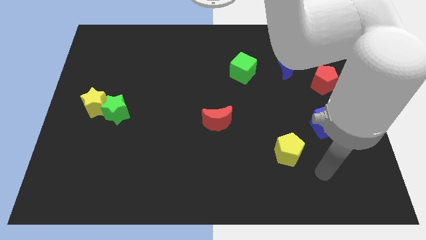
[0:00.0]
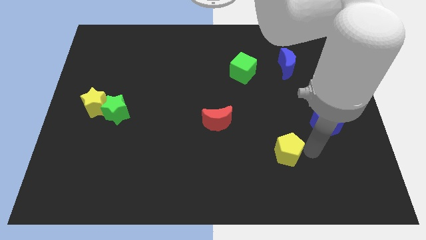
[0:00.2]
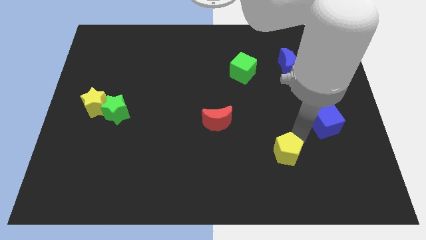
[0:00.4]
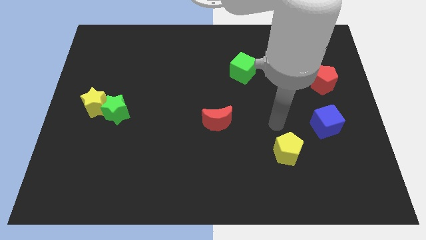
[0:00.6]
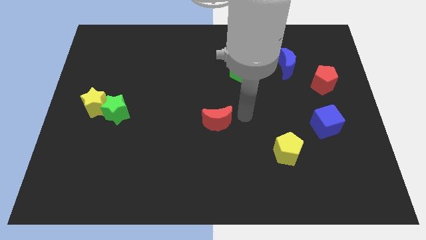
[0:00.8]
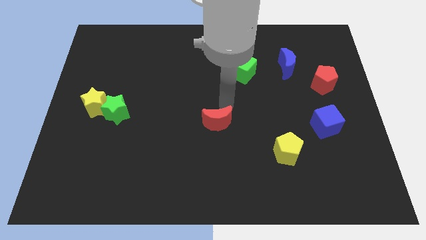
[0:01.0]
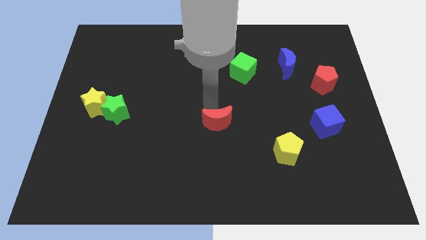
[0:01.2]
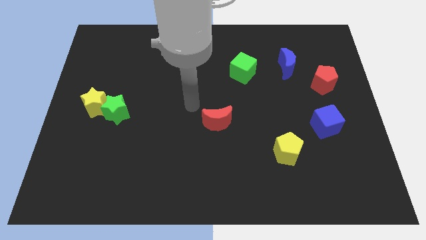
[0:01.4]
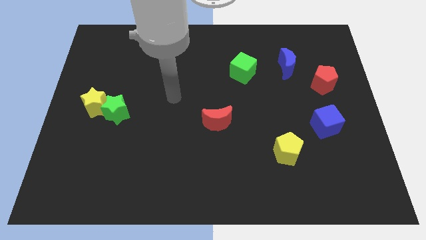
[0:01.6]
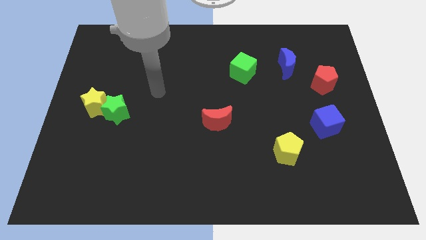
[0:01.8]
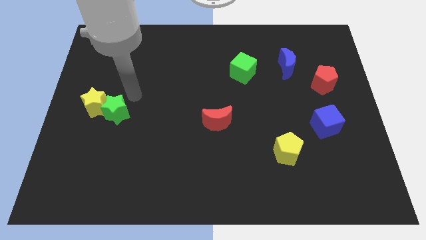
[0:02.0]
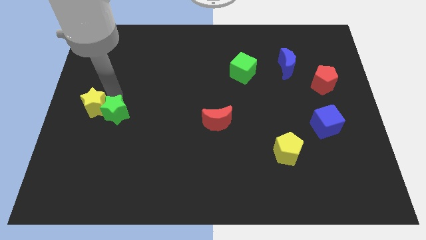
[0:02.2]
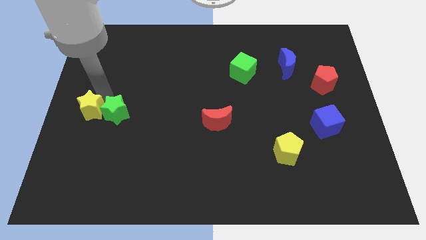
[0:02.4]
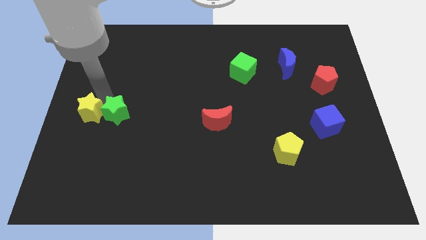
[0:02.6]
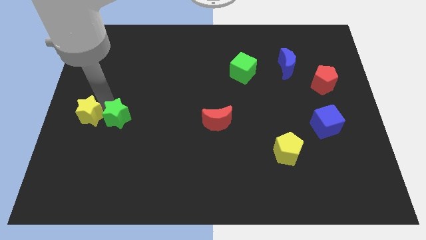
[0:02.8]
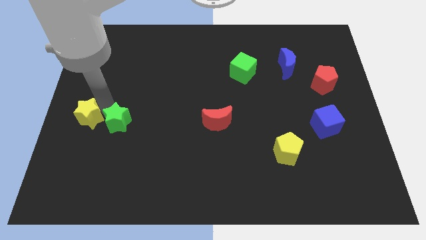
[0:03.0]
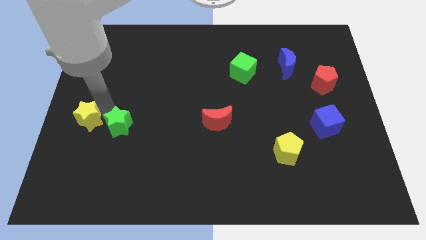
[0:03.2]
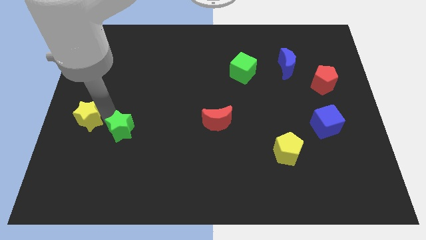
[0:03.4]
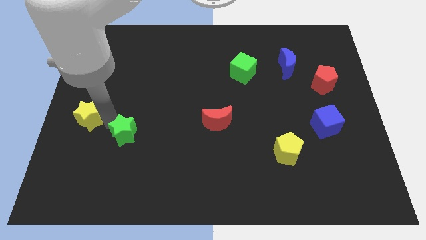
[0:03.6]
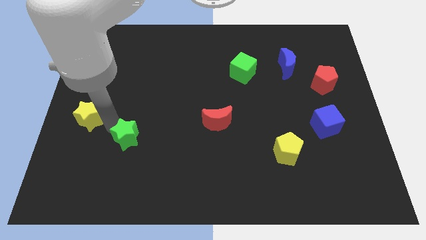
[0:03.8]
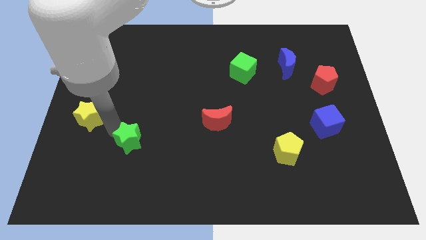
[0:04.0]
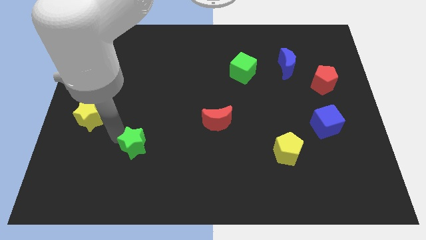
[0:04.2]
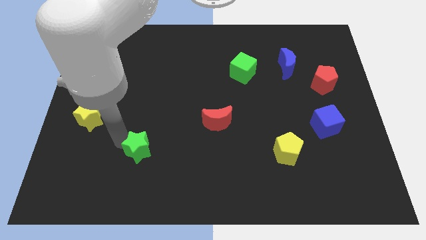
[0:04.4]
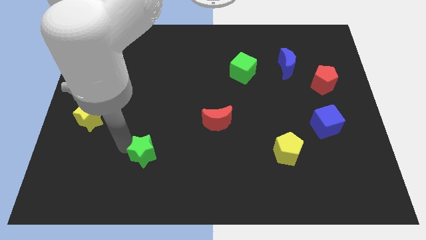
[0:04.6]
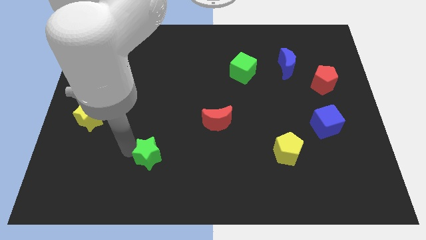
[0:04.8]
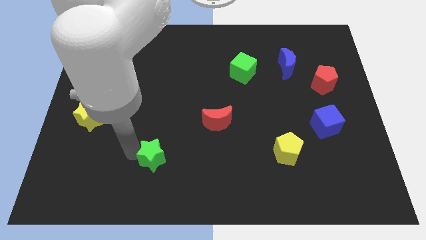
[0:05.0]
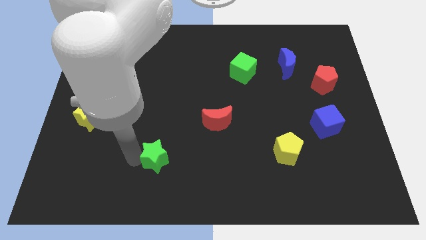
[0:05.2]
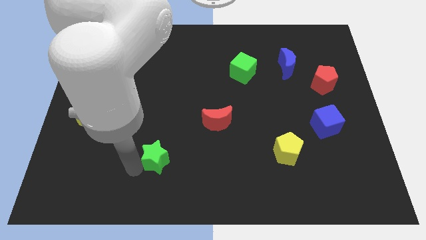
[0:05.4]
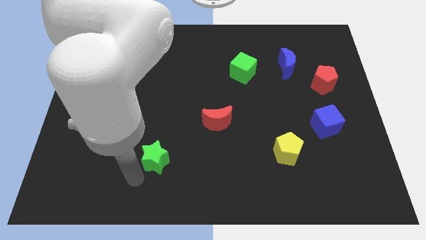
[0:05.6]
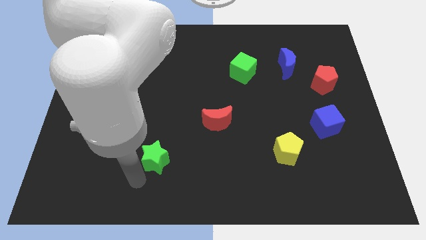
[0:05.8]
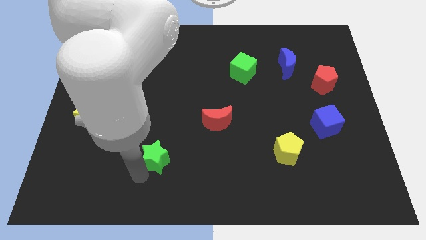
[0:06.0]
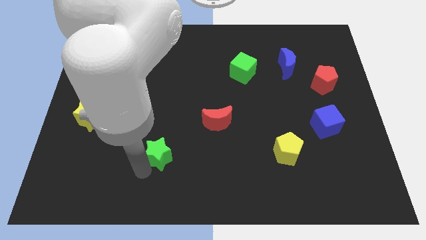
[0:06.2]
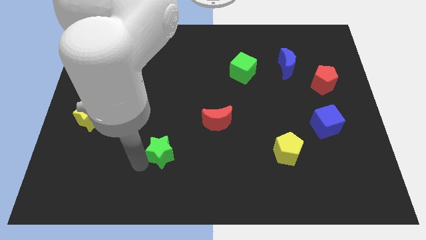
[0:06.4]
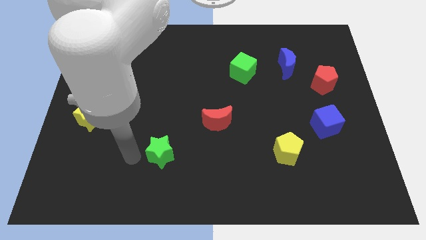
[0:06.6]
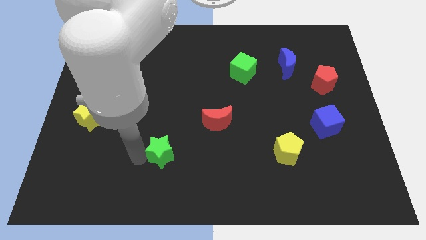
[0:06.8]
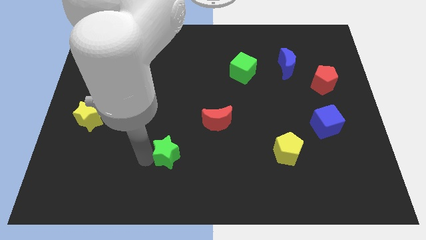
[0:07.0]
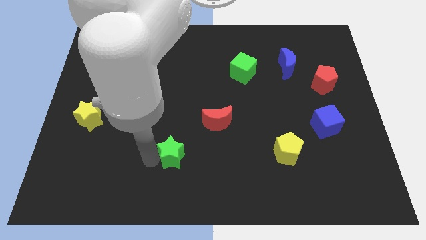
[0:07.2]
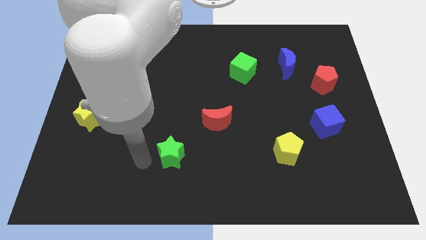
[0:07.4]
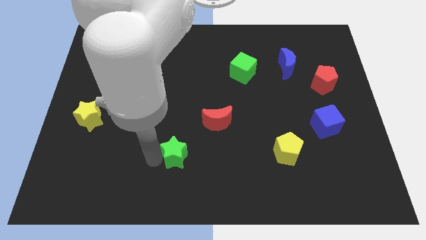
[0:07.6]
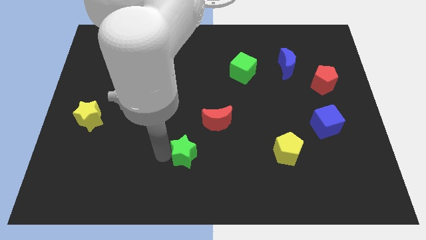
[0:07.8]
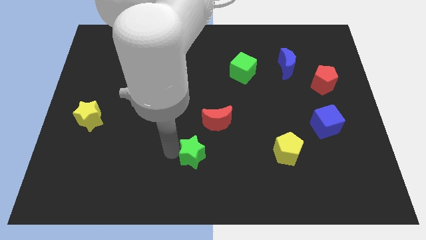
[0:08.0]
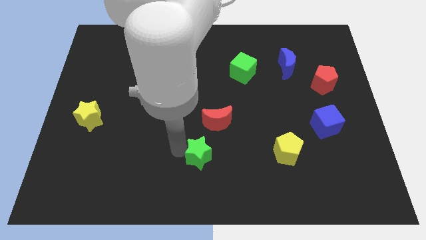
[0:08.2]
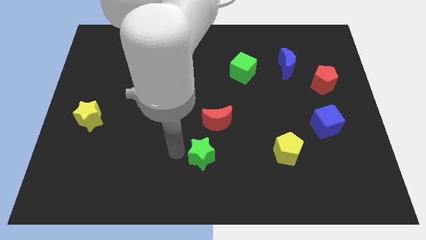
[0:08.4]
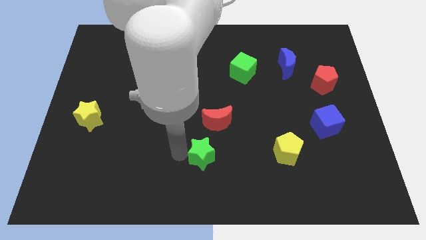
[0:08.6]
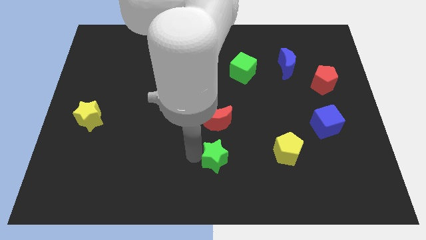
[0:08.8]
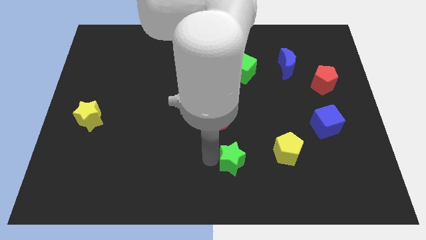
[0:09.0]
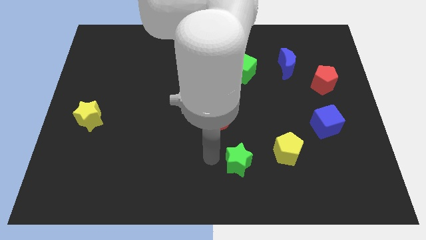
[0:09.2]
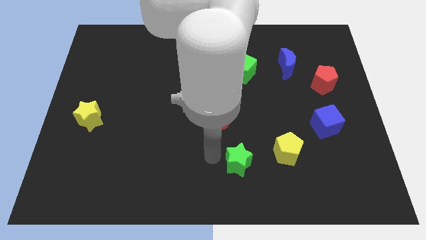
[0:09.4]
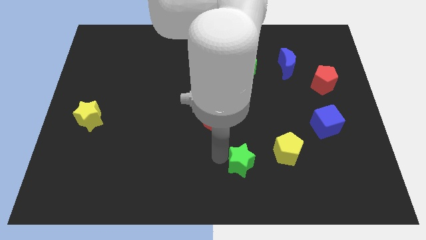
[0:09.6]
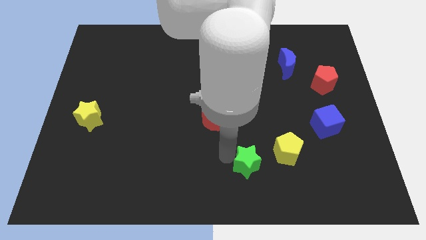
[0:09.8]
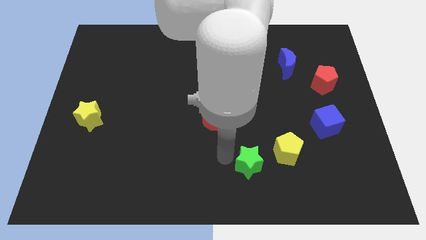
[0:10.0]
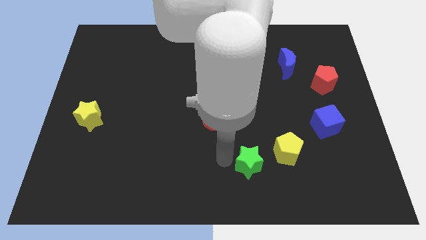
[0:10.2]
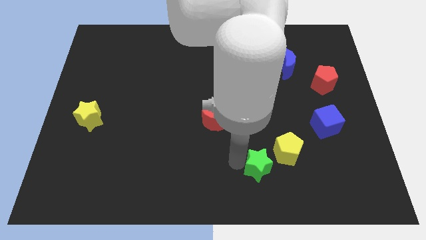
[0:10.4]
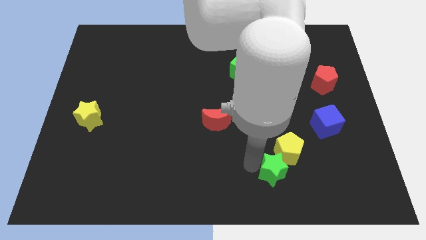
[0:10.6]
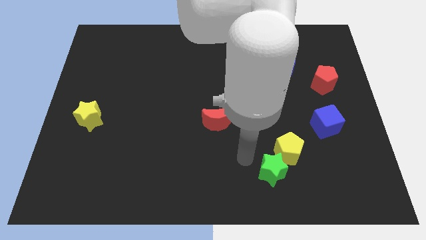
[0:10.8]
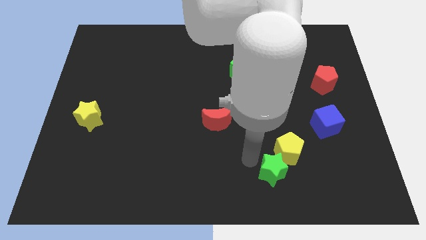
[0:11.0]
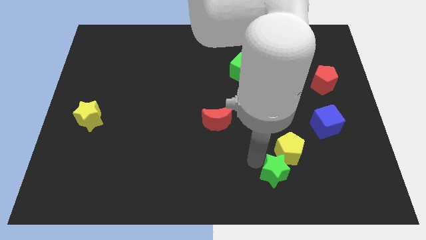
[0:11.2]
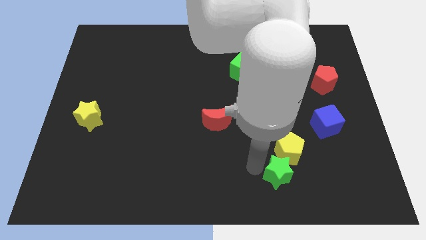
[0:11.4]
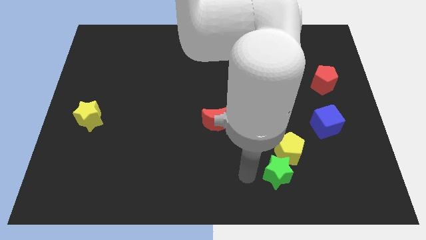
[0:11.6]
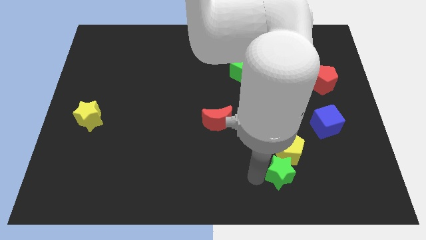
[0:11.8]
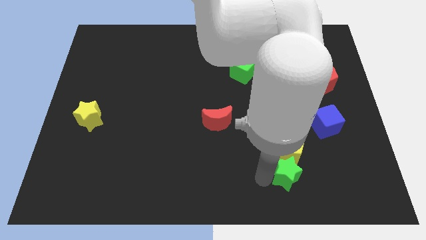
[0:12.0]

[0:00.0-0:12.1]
slide the green star diagonally down and to the right of the yellow pentagon

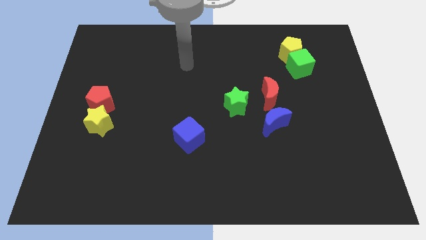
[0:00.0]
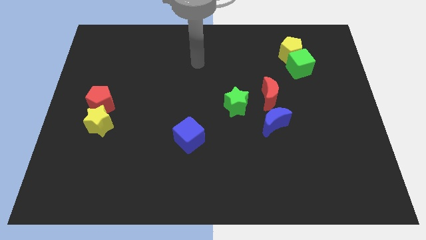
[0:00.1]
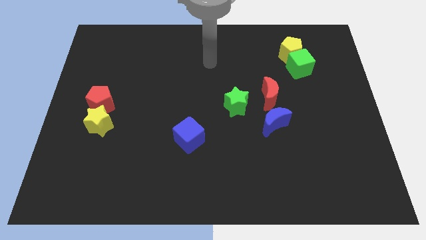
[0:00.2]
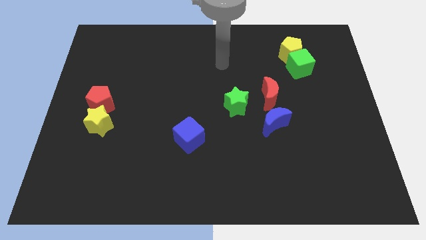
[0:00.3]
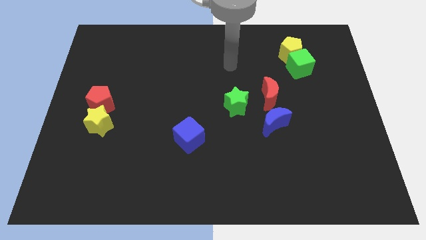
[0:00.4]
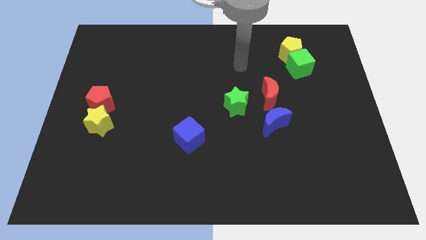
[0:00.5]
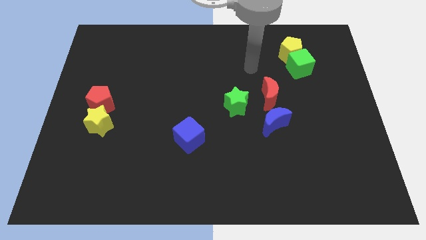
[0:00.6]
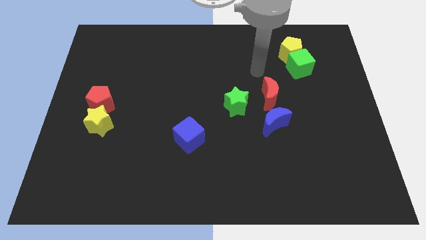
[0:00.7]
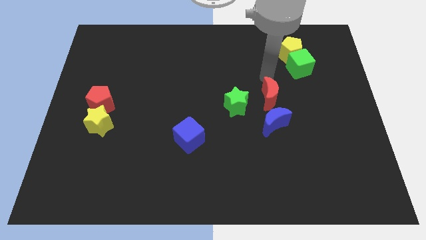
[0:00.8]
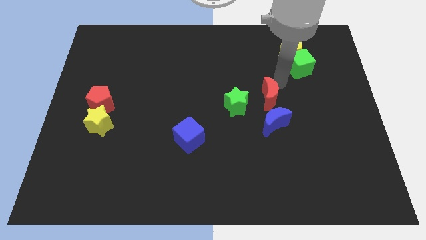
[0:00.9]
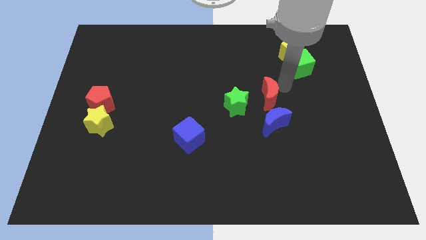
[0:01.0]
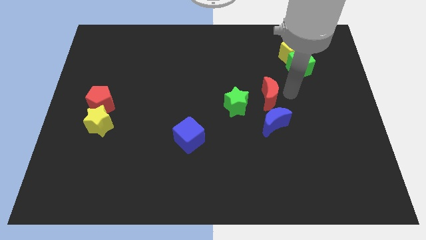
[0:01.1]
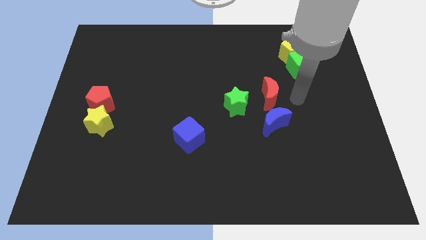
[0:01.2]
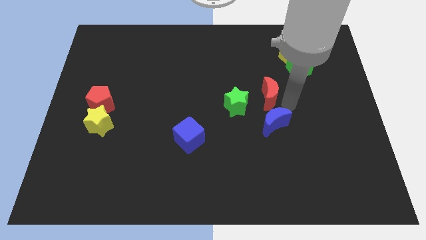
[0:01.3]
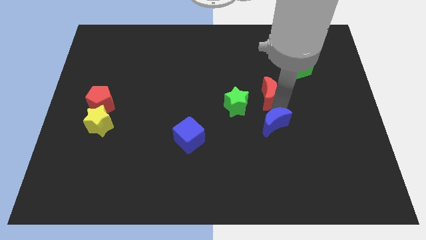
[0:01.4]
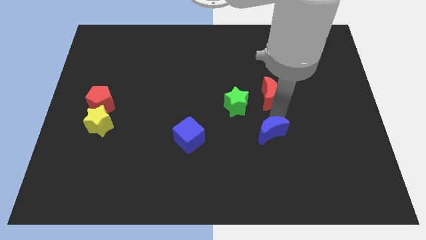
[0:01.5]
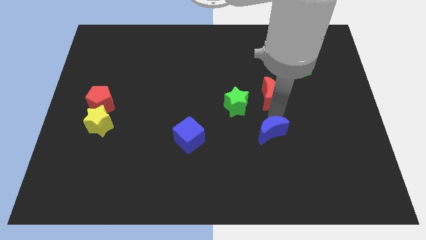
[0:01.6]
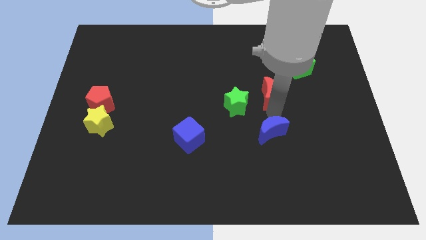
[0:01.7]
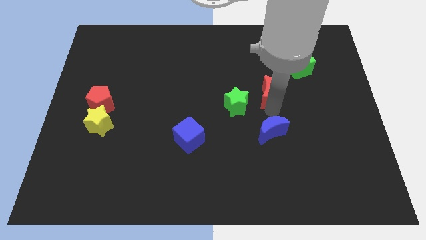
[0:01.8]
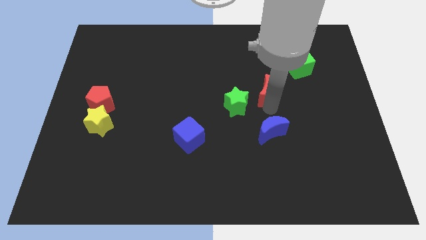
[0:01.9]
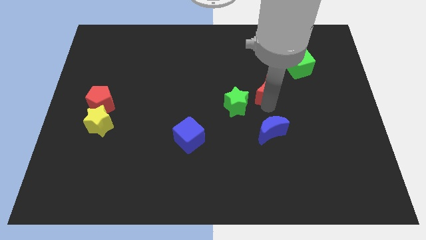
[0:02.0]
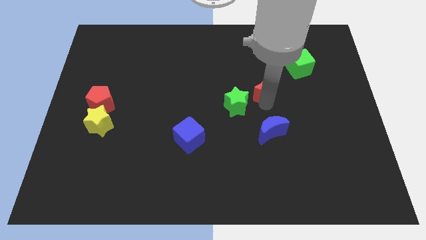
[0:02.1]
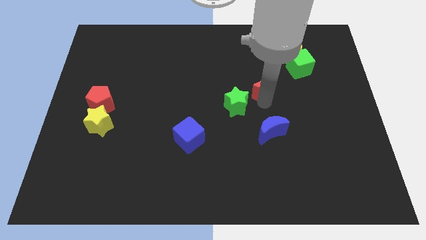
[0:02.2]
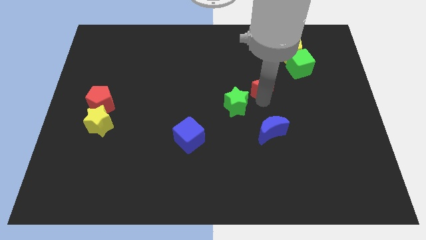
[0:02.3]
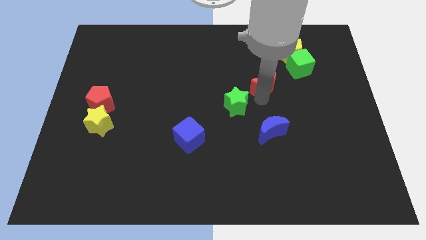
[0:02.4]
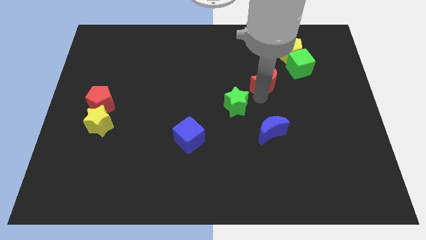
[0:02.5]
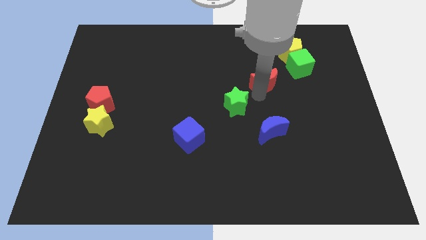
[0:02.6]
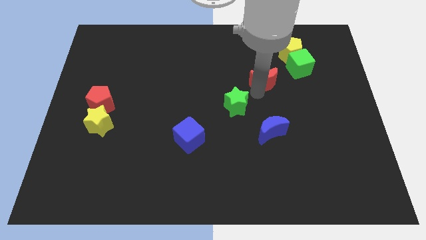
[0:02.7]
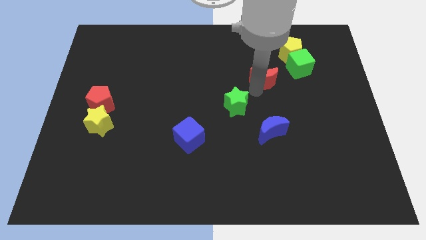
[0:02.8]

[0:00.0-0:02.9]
slide the red moon left of the green cube
